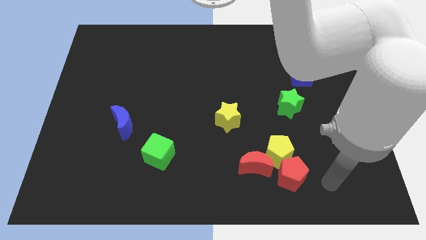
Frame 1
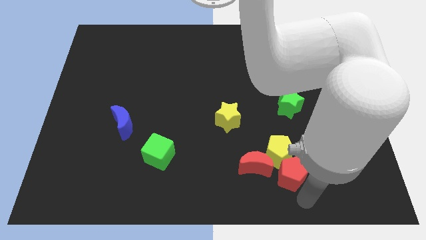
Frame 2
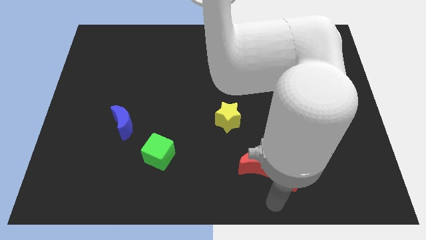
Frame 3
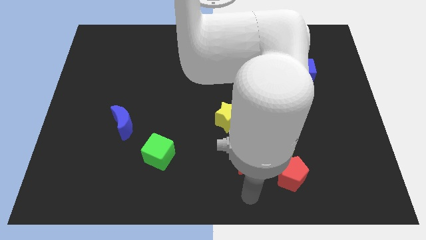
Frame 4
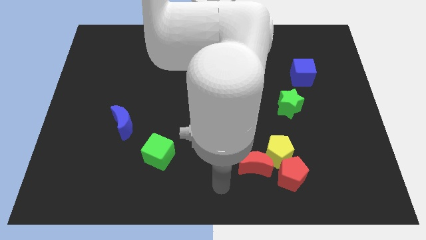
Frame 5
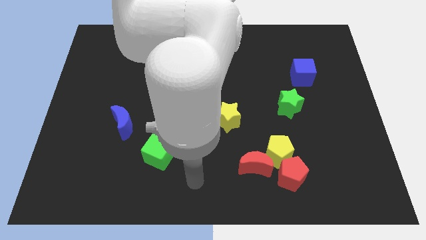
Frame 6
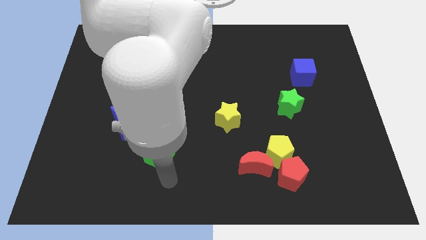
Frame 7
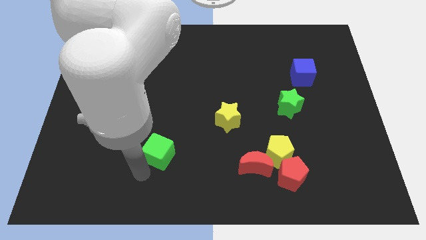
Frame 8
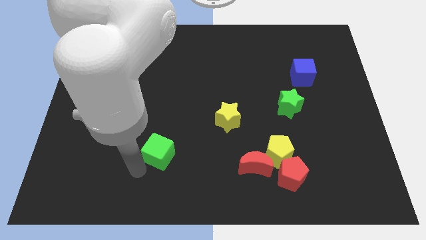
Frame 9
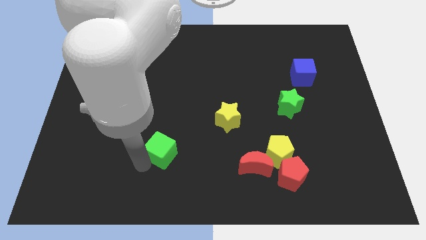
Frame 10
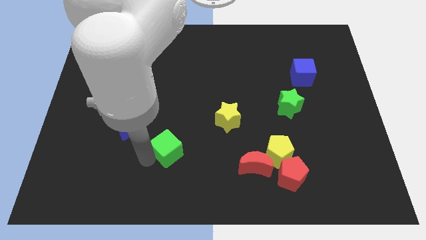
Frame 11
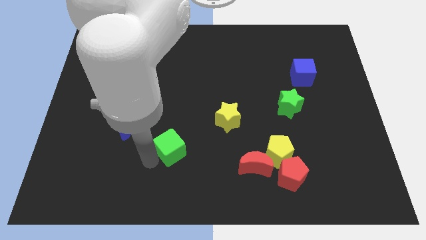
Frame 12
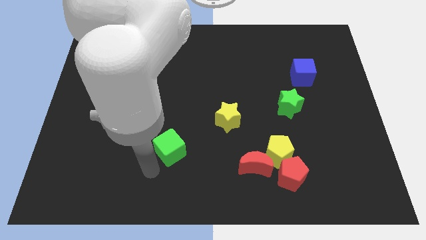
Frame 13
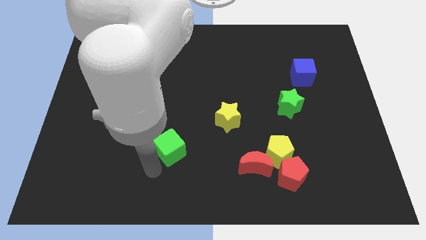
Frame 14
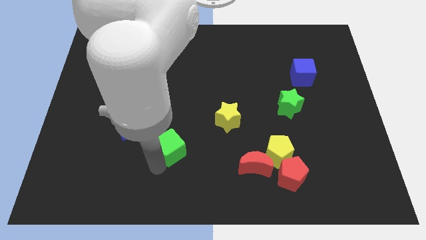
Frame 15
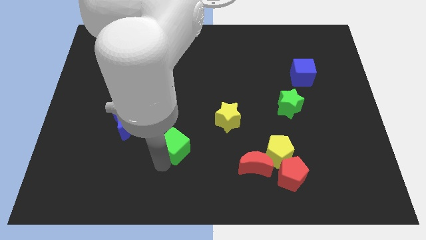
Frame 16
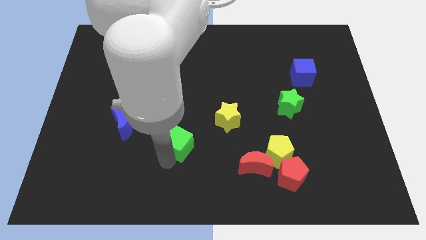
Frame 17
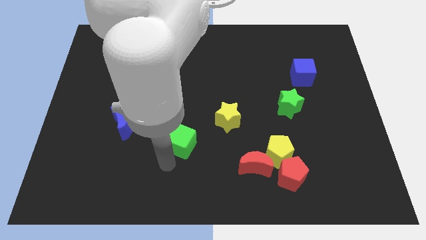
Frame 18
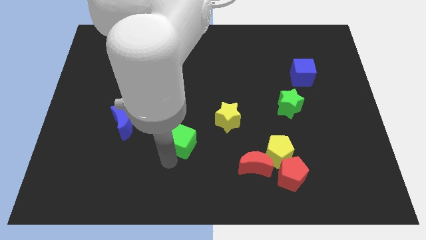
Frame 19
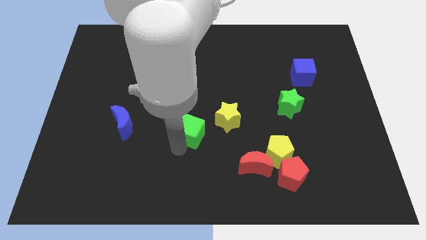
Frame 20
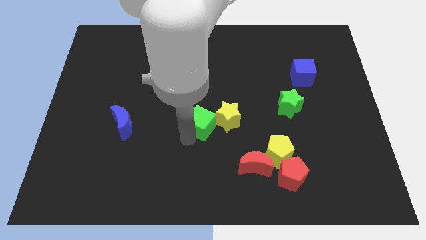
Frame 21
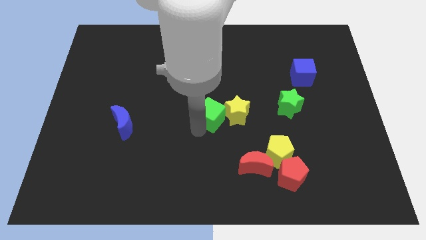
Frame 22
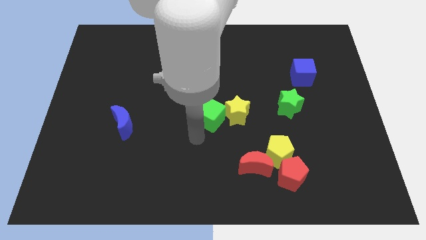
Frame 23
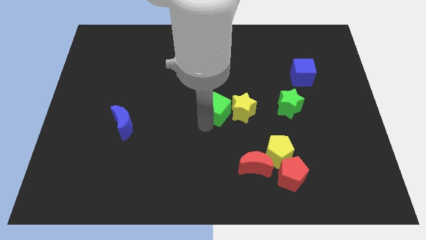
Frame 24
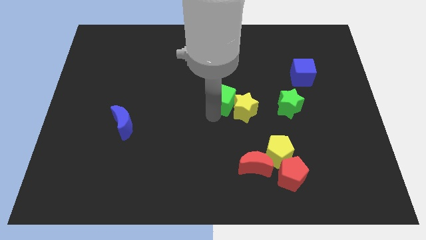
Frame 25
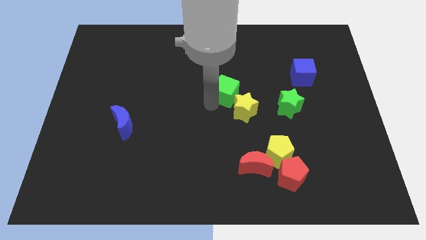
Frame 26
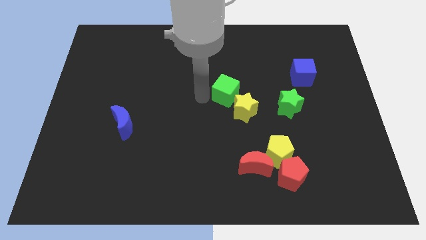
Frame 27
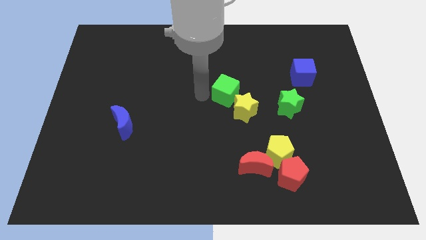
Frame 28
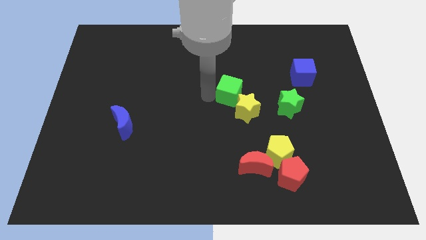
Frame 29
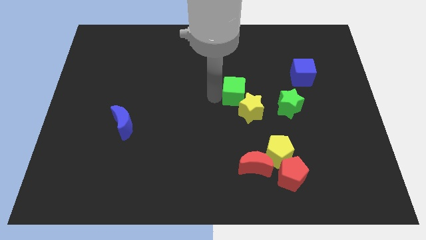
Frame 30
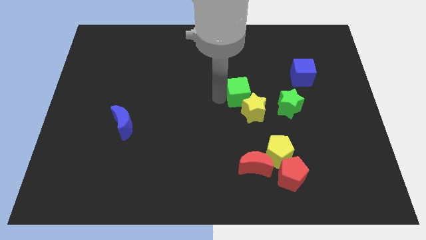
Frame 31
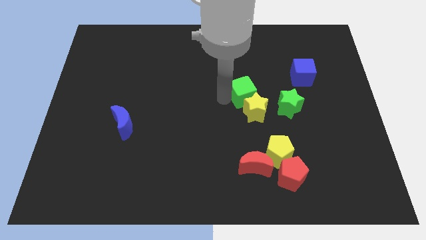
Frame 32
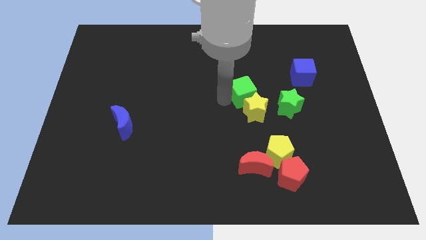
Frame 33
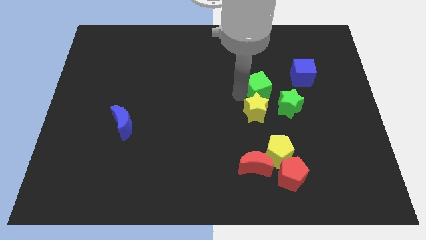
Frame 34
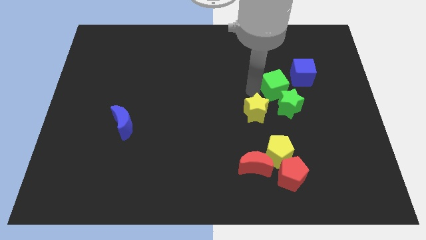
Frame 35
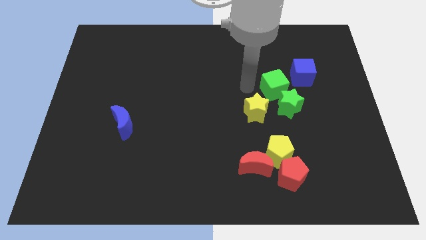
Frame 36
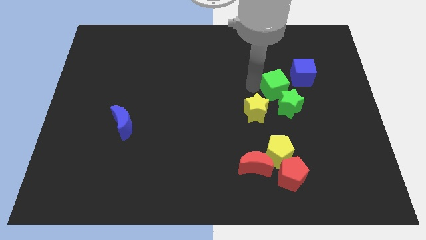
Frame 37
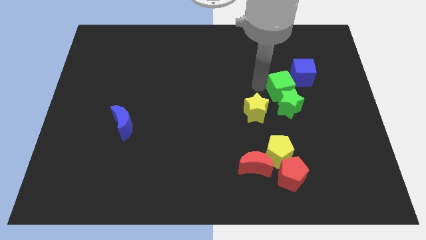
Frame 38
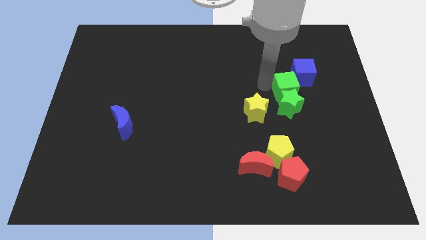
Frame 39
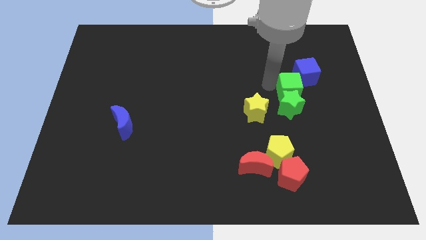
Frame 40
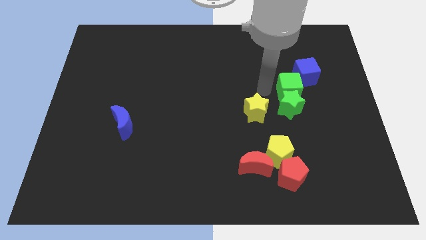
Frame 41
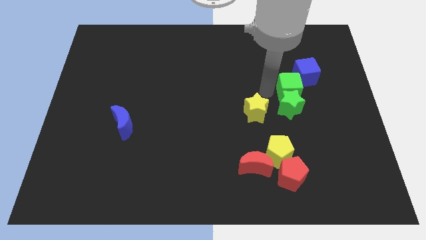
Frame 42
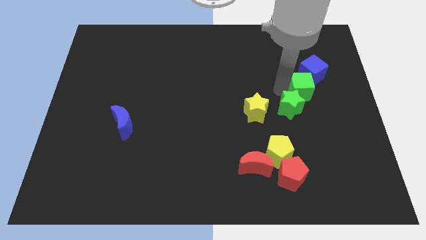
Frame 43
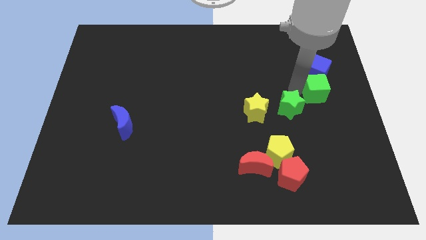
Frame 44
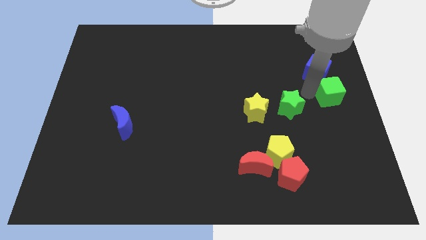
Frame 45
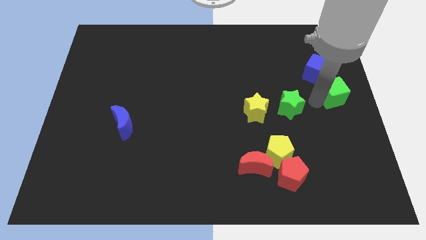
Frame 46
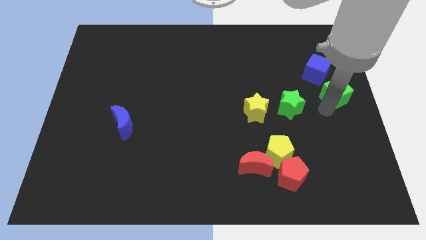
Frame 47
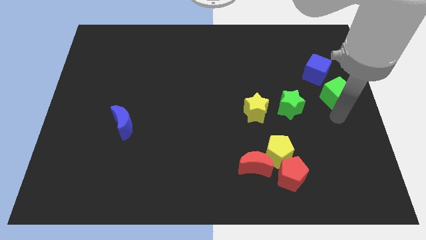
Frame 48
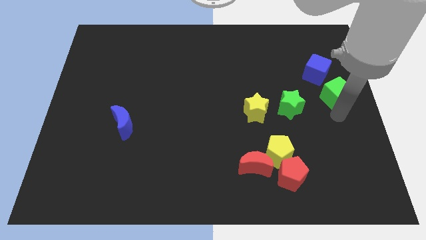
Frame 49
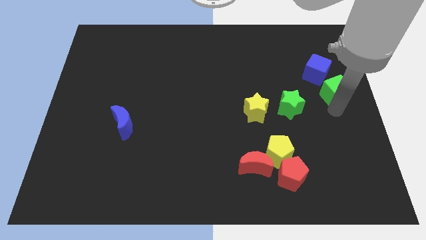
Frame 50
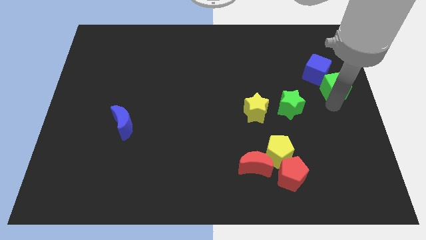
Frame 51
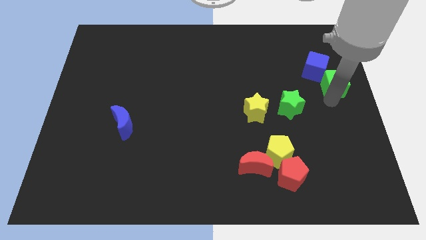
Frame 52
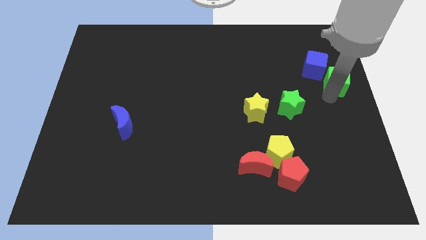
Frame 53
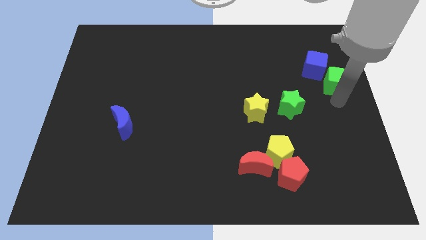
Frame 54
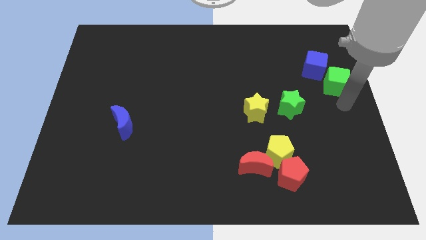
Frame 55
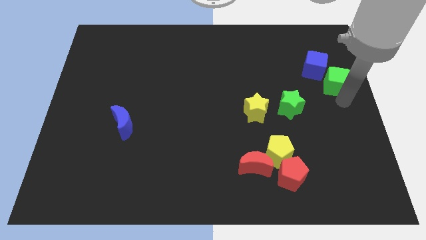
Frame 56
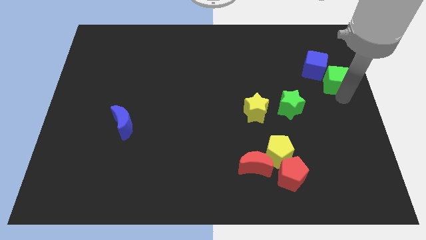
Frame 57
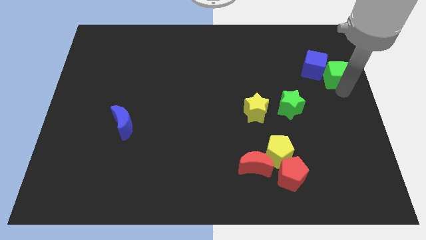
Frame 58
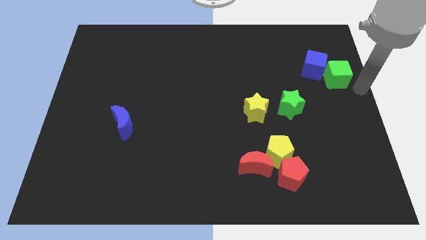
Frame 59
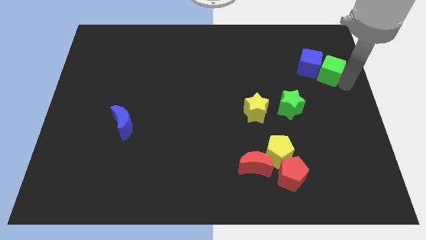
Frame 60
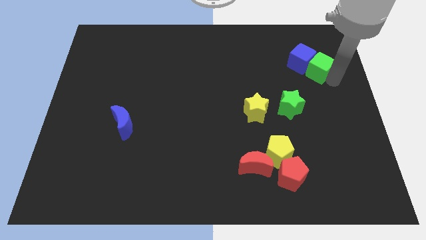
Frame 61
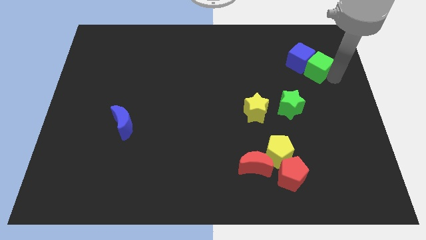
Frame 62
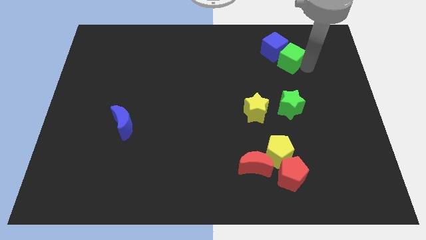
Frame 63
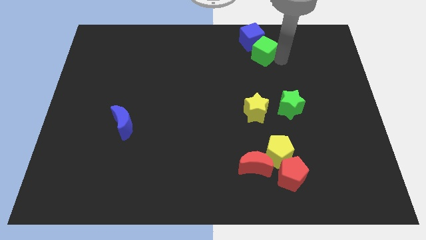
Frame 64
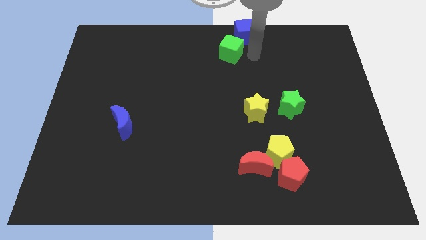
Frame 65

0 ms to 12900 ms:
move the green cube to the top
